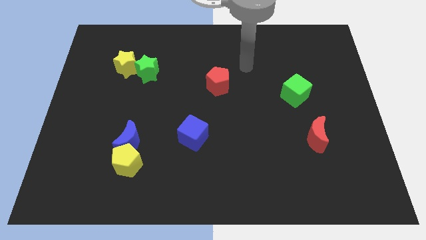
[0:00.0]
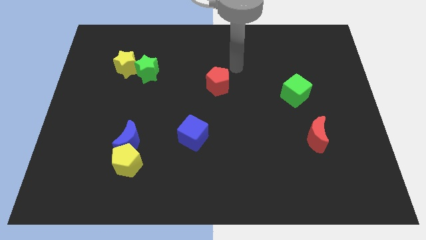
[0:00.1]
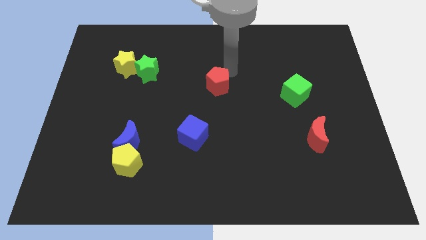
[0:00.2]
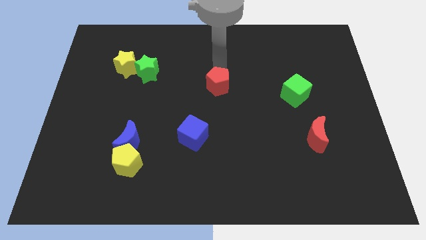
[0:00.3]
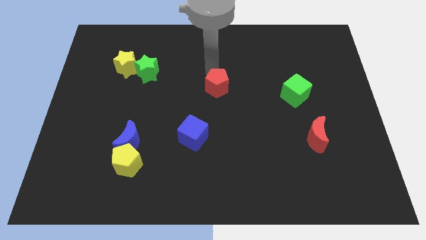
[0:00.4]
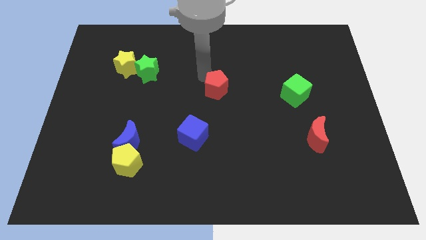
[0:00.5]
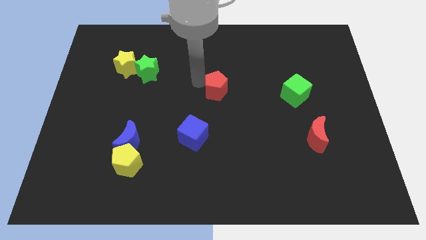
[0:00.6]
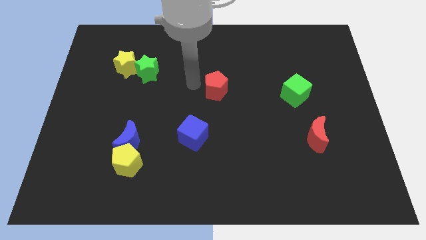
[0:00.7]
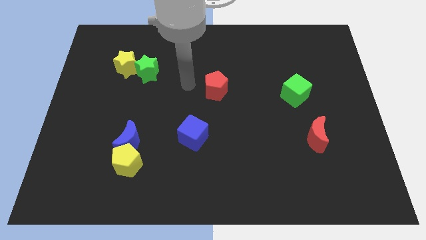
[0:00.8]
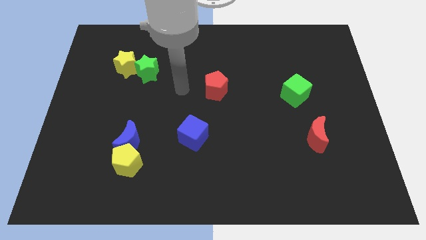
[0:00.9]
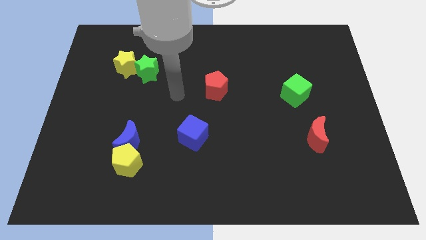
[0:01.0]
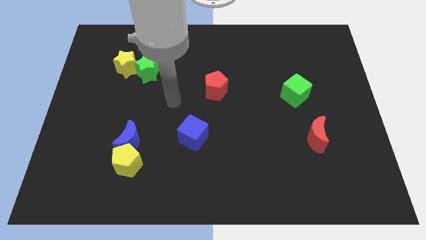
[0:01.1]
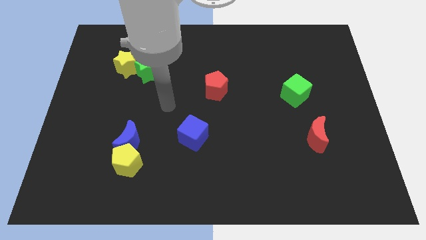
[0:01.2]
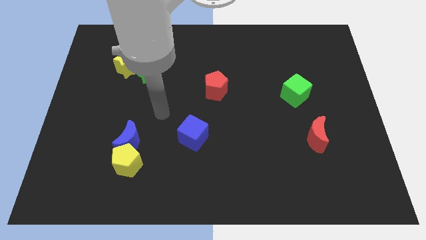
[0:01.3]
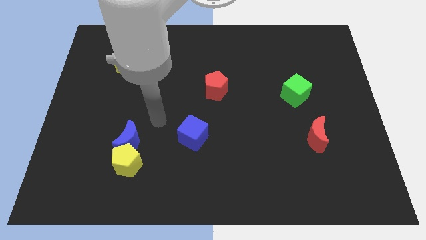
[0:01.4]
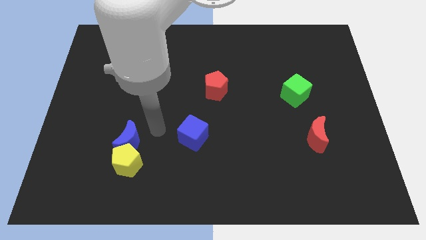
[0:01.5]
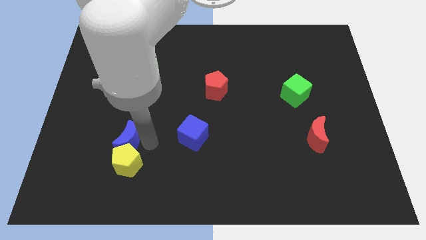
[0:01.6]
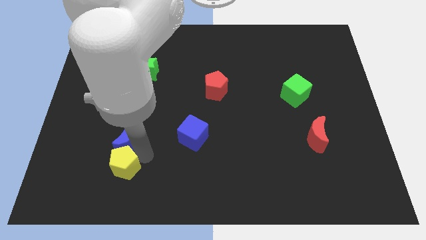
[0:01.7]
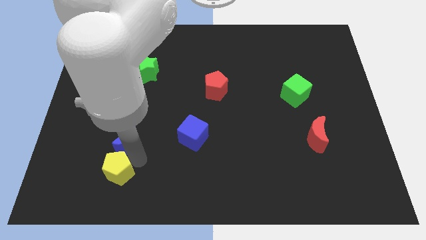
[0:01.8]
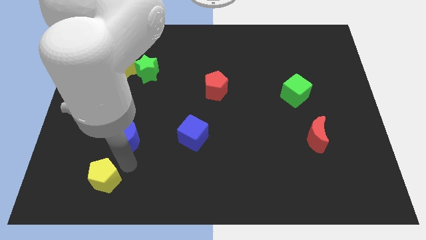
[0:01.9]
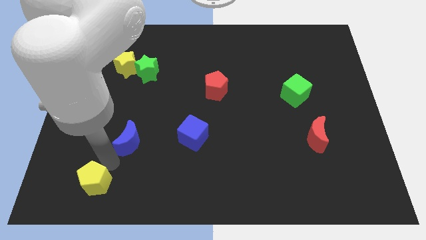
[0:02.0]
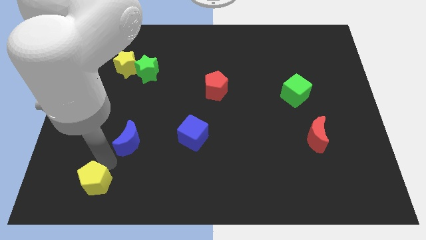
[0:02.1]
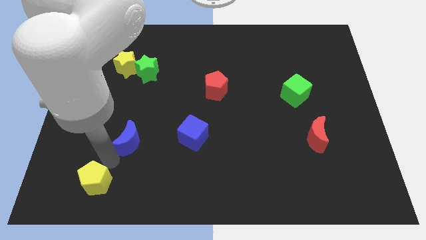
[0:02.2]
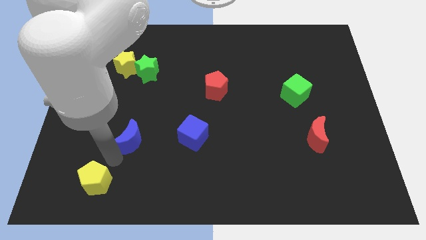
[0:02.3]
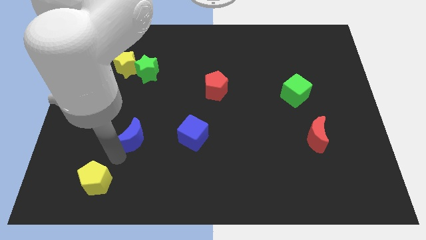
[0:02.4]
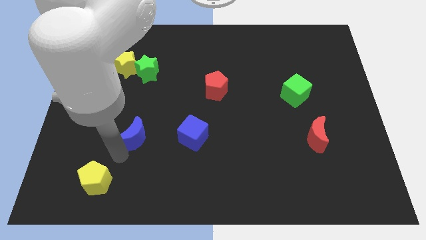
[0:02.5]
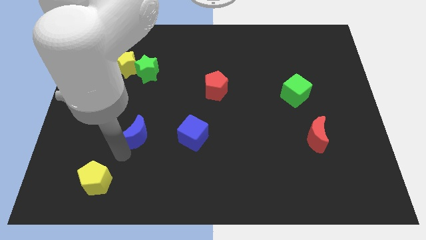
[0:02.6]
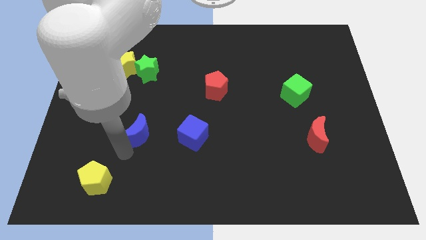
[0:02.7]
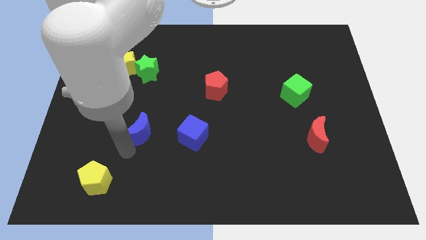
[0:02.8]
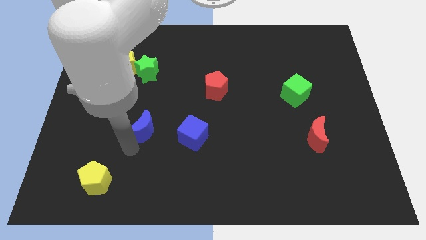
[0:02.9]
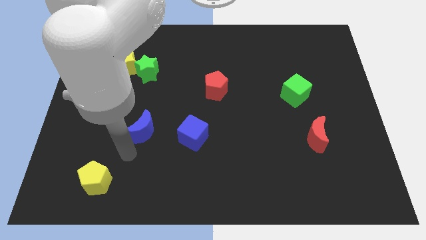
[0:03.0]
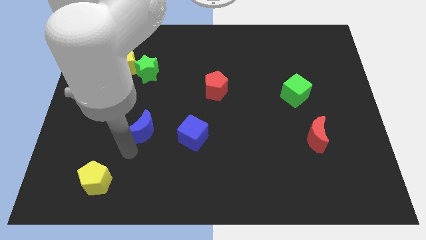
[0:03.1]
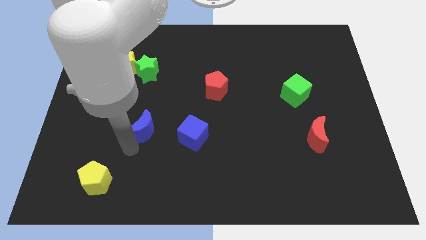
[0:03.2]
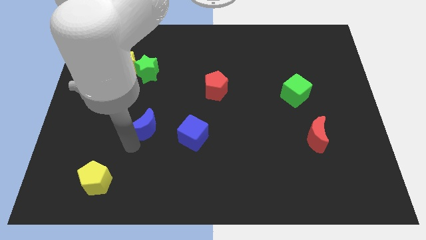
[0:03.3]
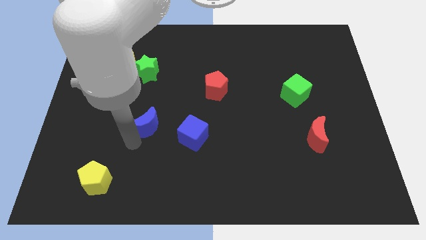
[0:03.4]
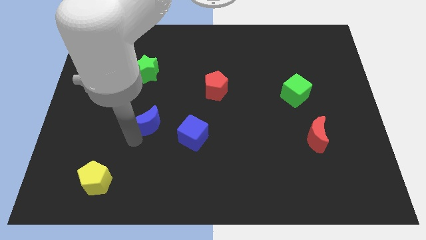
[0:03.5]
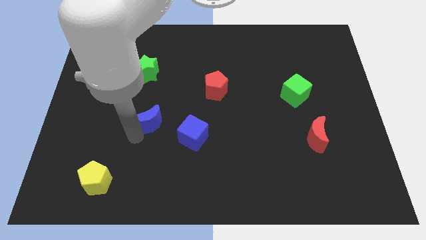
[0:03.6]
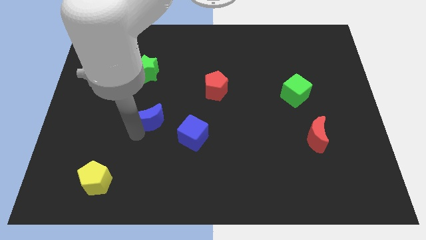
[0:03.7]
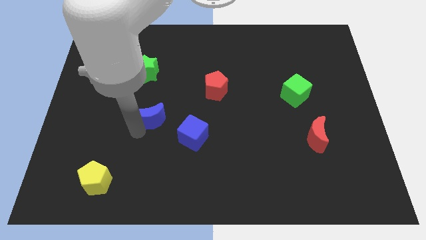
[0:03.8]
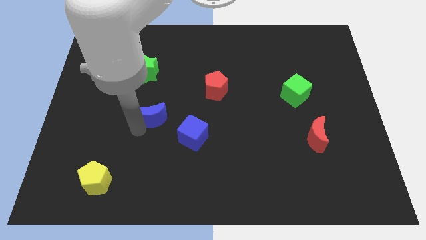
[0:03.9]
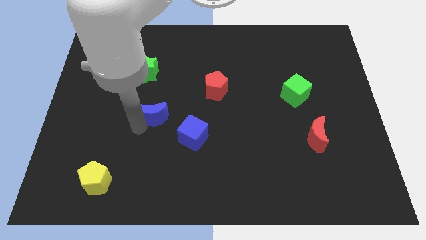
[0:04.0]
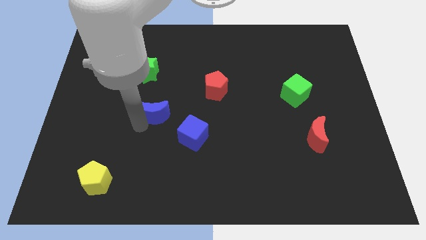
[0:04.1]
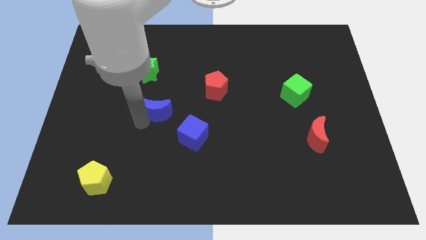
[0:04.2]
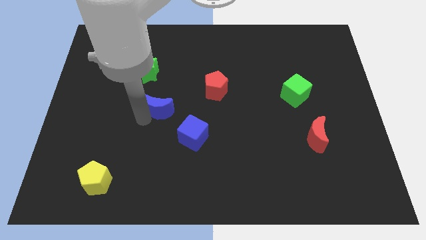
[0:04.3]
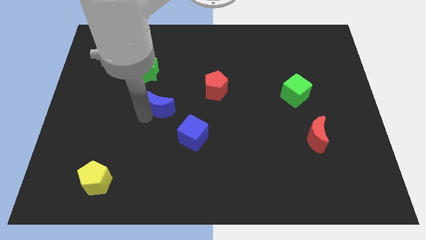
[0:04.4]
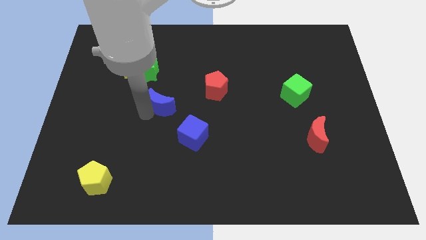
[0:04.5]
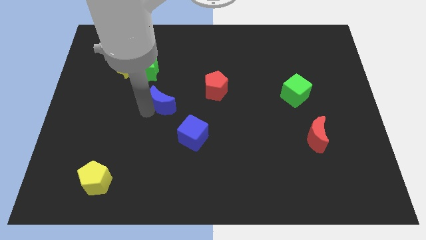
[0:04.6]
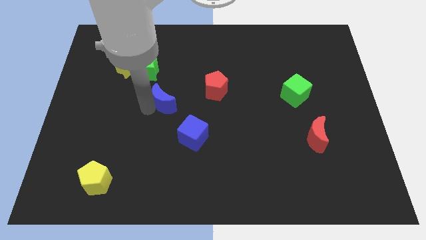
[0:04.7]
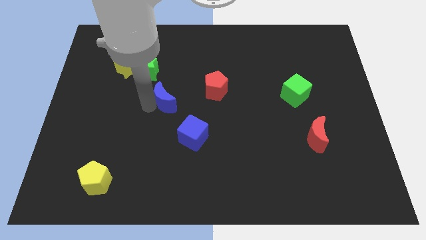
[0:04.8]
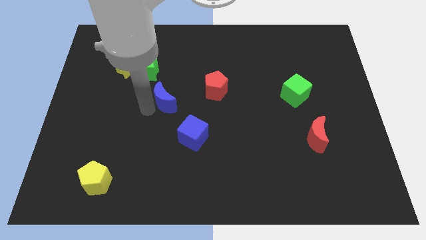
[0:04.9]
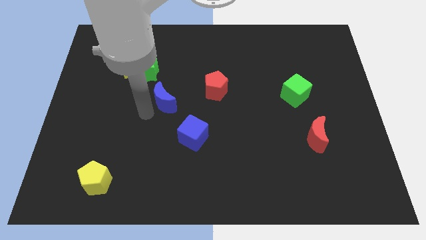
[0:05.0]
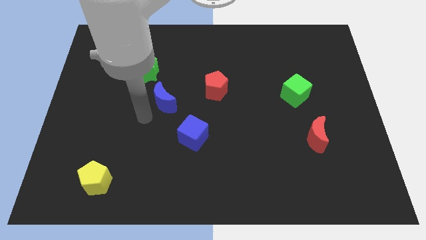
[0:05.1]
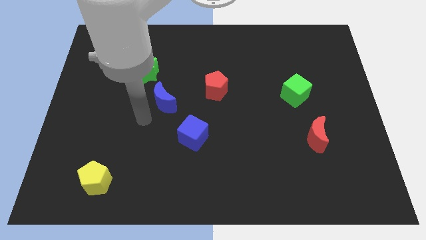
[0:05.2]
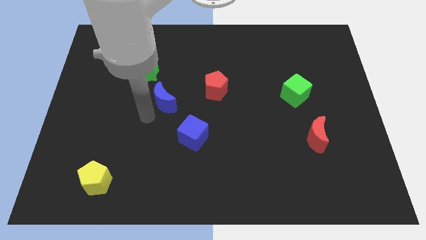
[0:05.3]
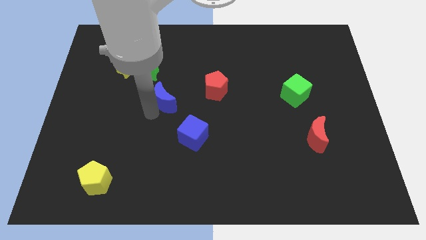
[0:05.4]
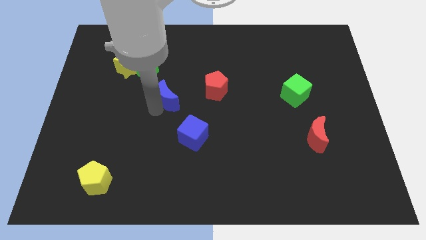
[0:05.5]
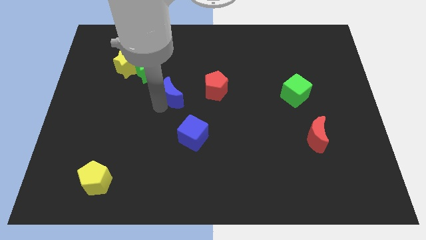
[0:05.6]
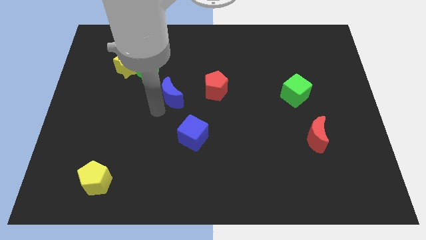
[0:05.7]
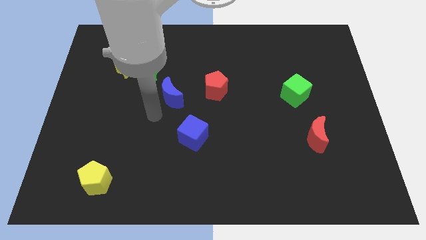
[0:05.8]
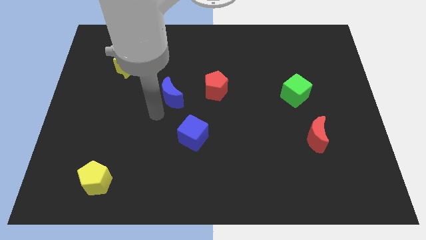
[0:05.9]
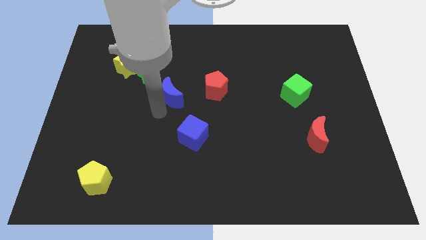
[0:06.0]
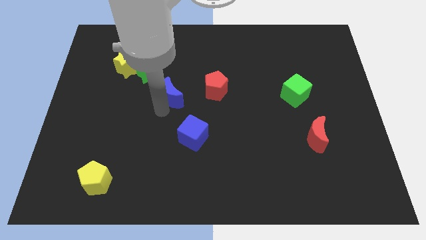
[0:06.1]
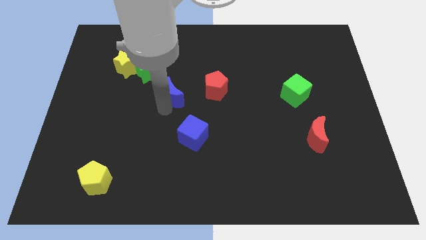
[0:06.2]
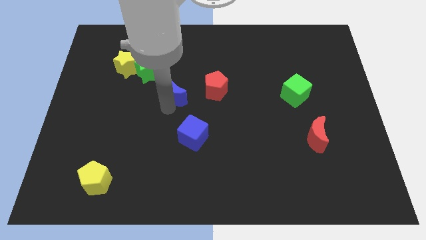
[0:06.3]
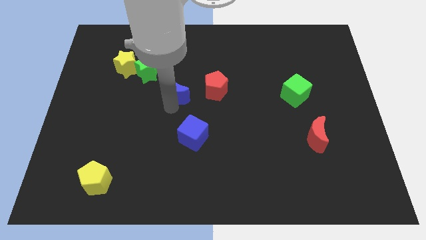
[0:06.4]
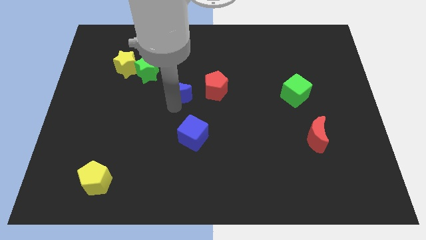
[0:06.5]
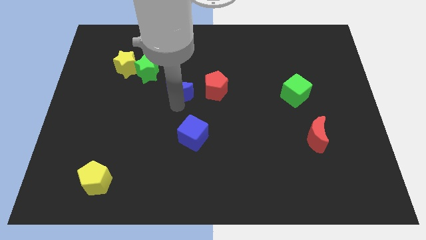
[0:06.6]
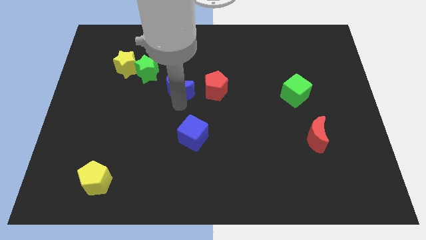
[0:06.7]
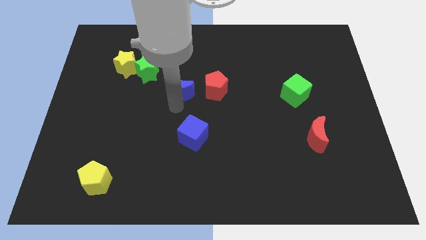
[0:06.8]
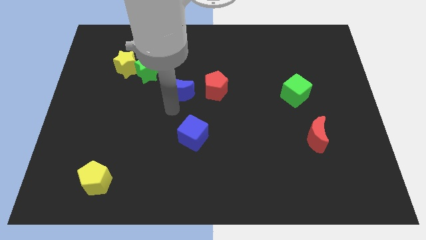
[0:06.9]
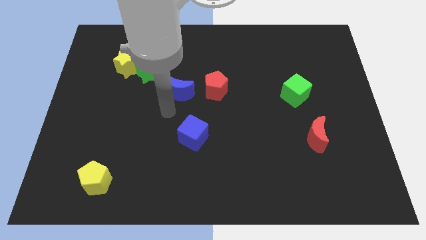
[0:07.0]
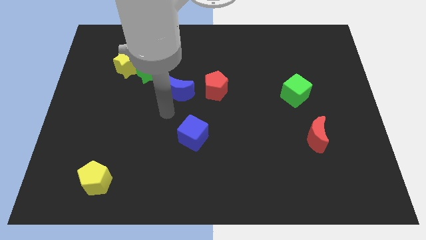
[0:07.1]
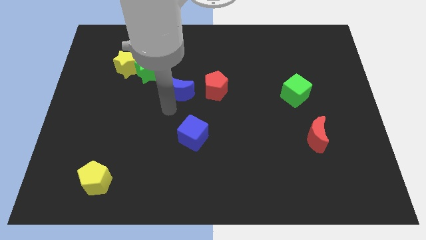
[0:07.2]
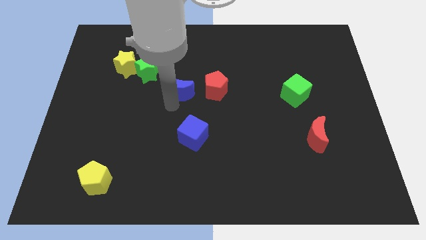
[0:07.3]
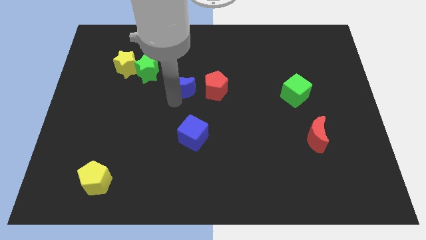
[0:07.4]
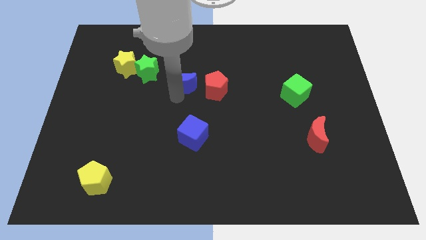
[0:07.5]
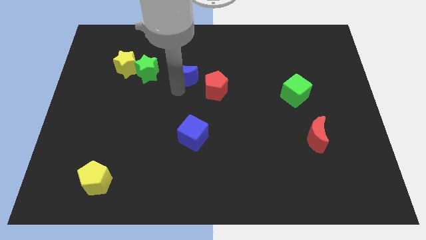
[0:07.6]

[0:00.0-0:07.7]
slide the blue moon upwards and right diagonally

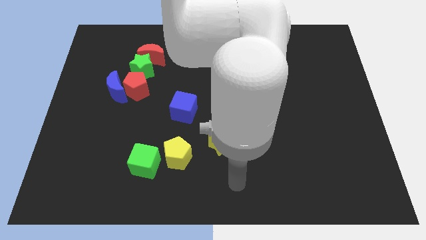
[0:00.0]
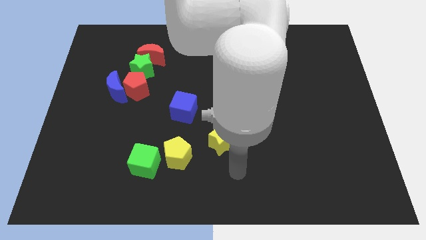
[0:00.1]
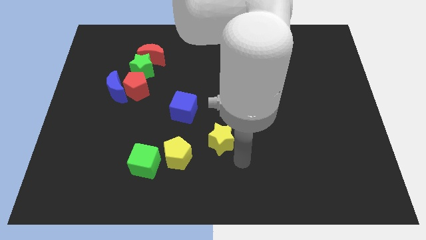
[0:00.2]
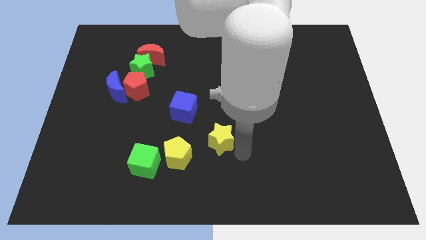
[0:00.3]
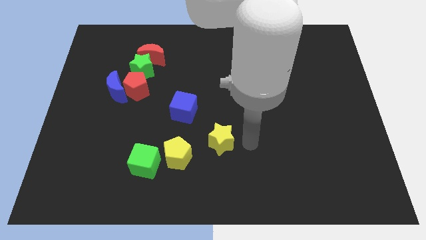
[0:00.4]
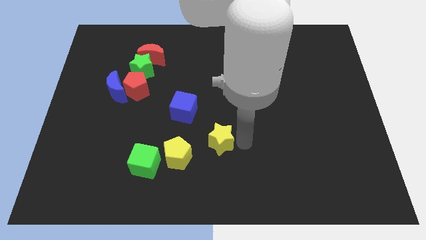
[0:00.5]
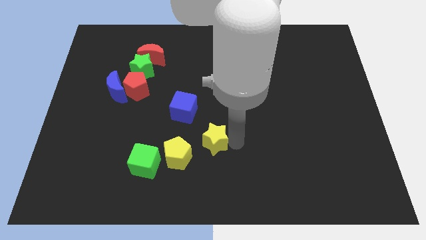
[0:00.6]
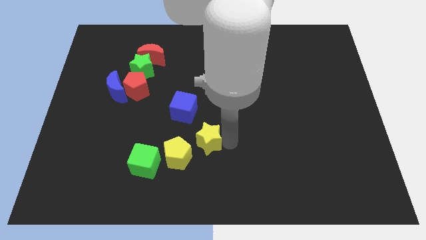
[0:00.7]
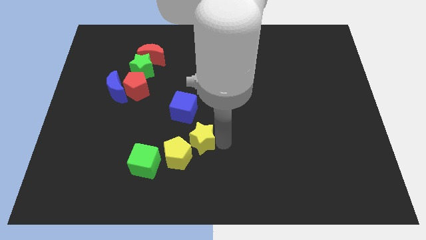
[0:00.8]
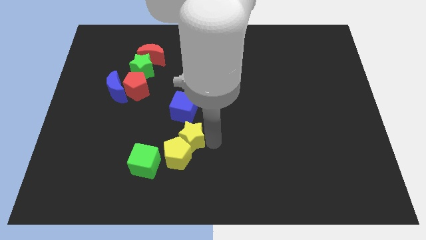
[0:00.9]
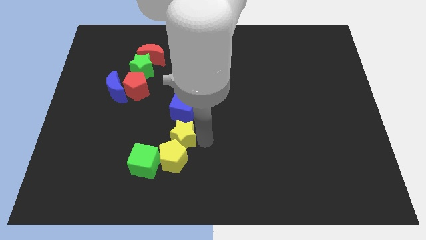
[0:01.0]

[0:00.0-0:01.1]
move the yellow star left a little
